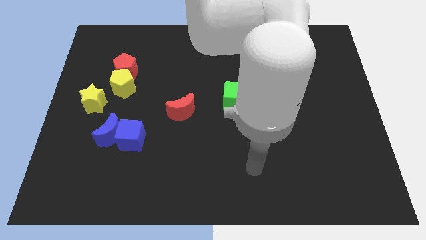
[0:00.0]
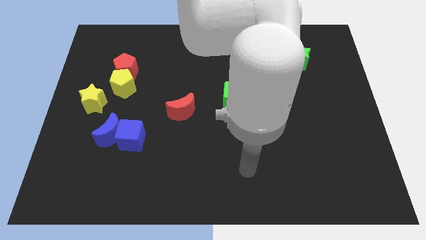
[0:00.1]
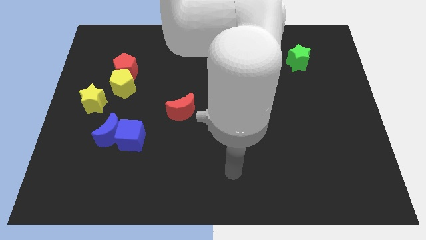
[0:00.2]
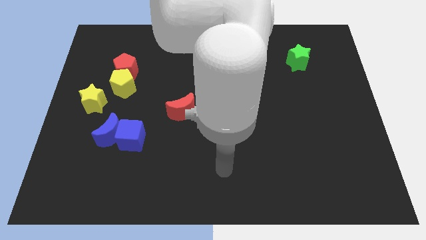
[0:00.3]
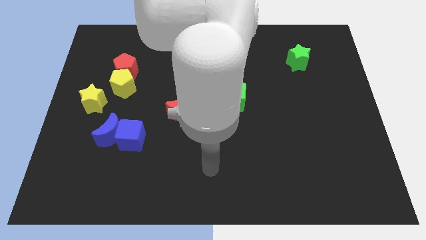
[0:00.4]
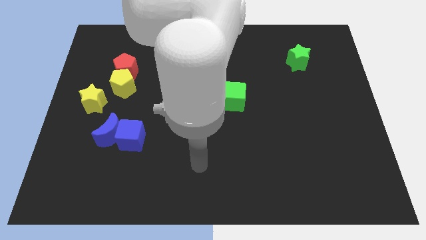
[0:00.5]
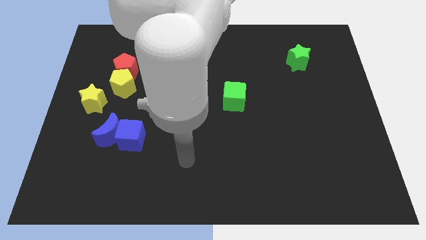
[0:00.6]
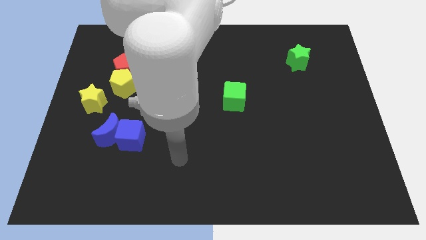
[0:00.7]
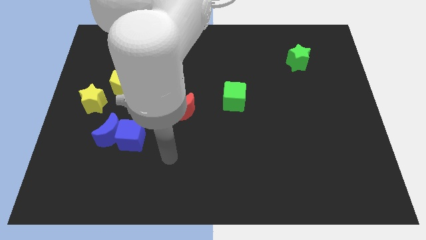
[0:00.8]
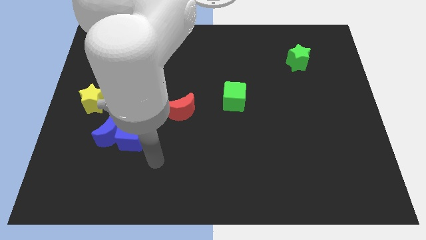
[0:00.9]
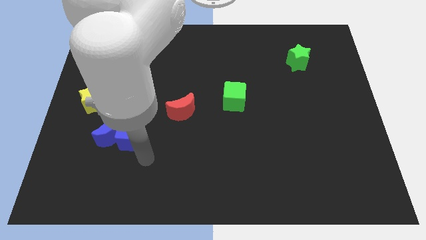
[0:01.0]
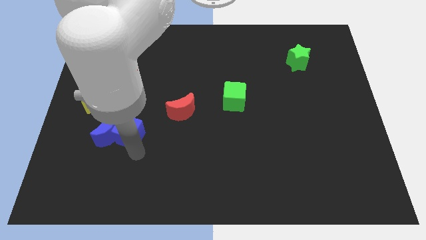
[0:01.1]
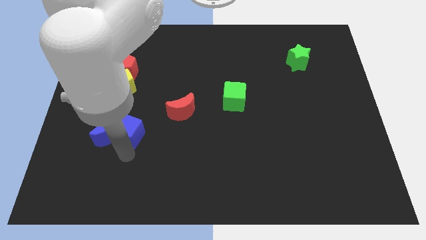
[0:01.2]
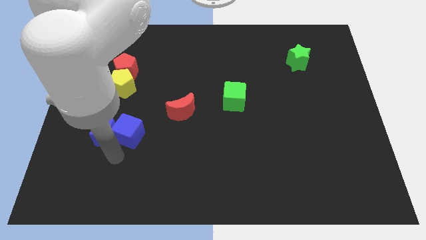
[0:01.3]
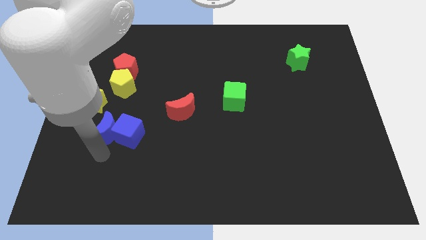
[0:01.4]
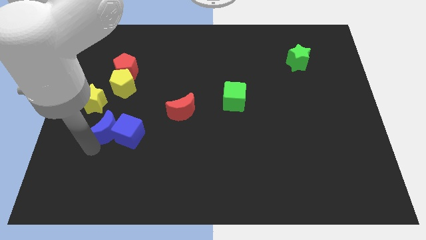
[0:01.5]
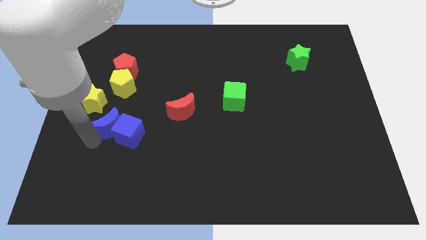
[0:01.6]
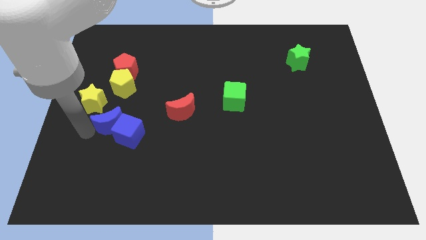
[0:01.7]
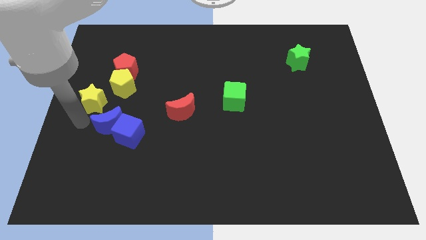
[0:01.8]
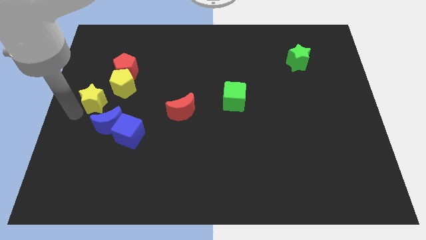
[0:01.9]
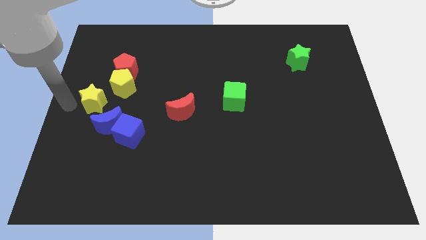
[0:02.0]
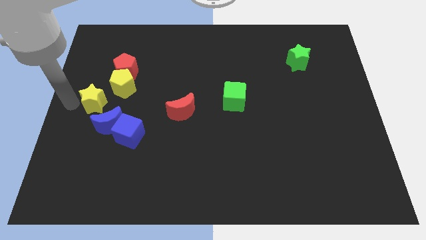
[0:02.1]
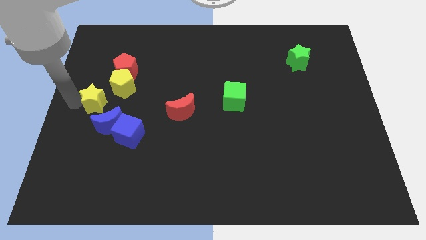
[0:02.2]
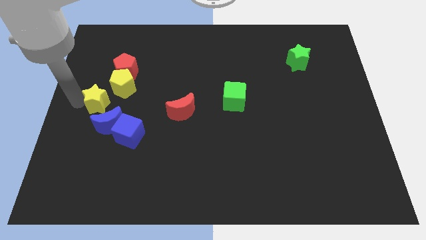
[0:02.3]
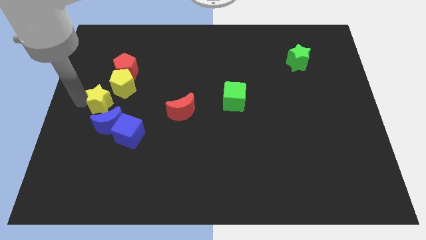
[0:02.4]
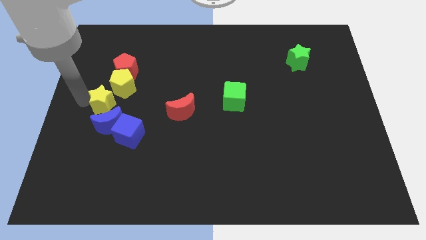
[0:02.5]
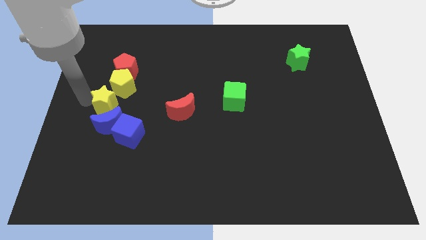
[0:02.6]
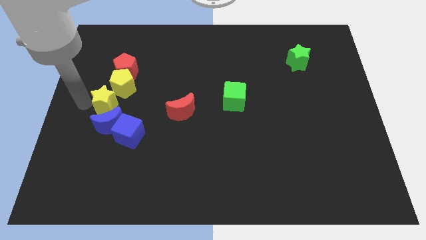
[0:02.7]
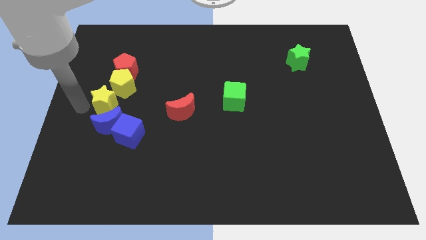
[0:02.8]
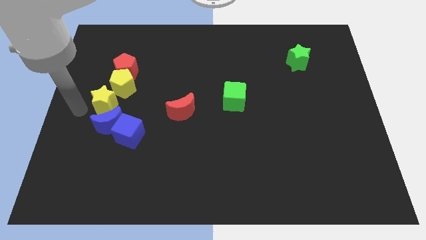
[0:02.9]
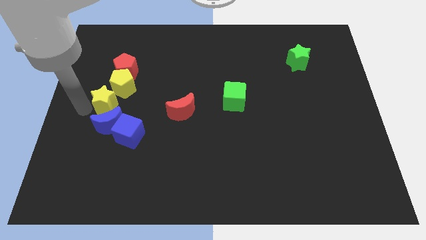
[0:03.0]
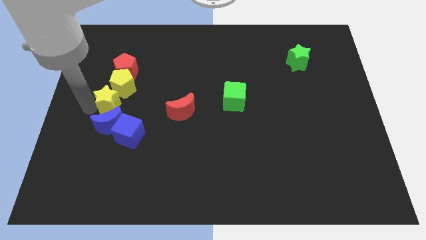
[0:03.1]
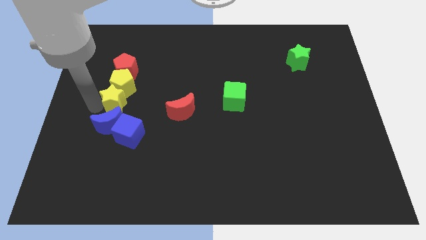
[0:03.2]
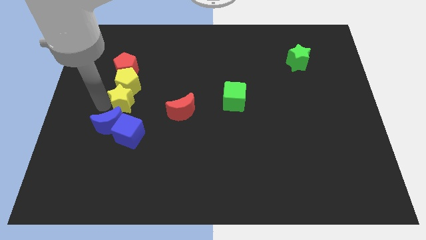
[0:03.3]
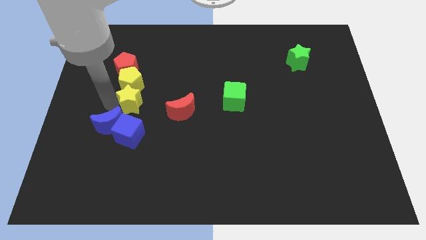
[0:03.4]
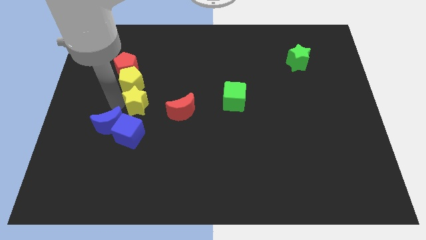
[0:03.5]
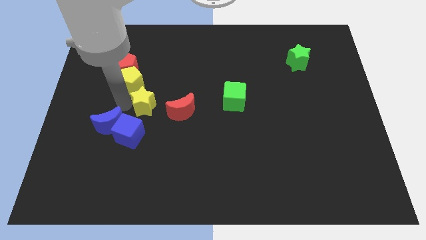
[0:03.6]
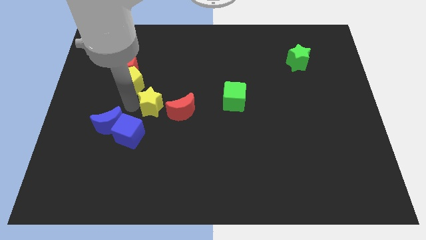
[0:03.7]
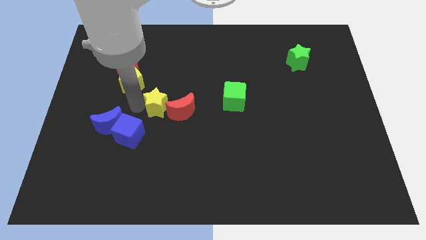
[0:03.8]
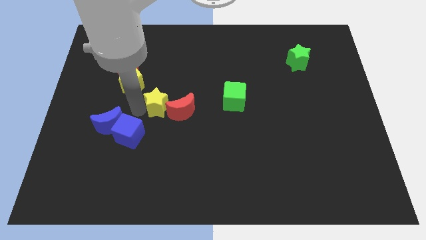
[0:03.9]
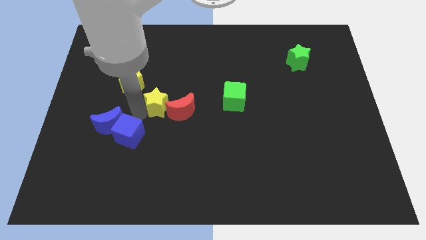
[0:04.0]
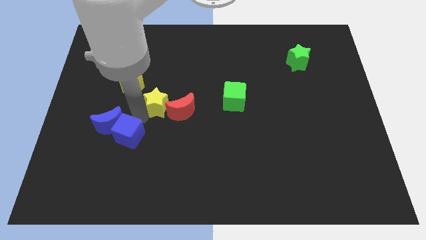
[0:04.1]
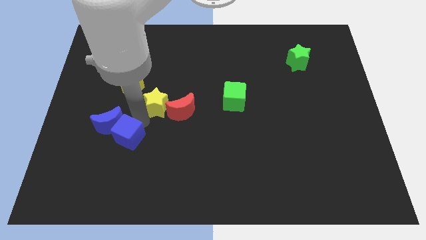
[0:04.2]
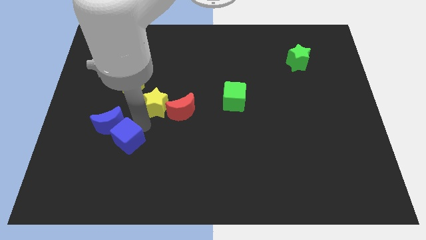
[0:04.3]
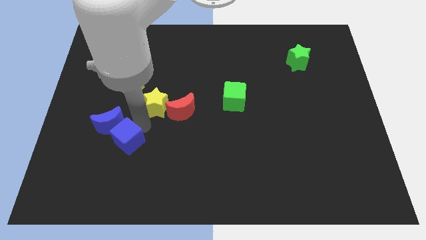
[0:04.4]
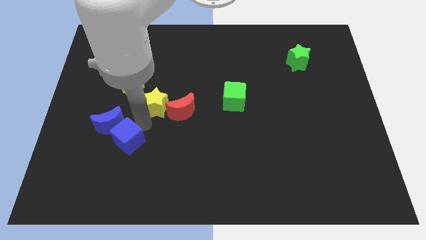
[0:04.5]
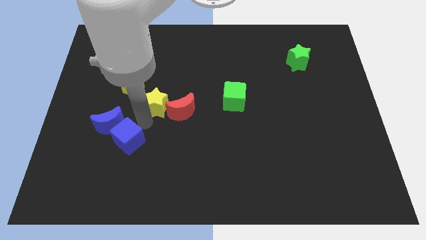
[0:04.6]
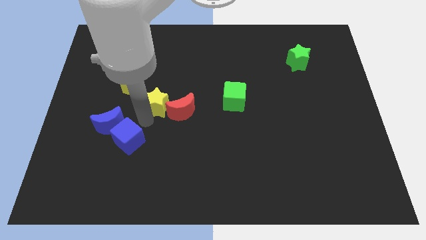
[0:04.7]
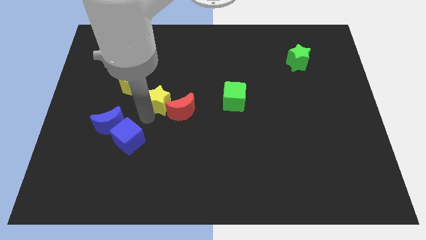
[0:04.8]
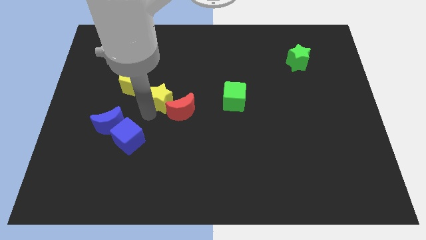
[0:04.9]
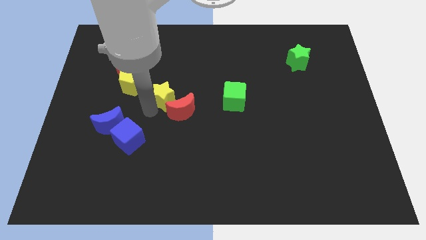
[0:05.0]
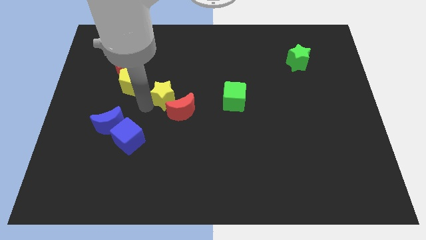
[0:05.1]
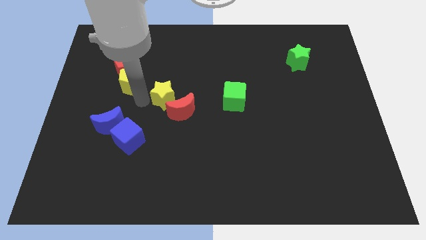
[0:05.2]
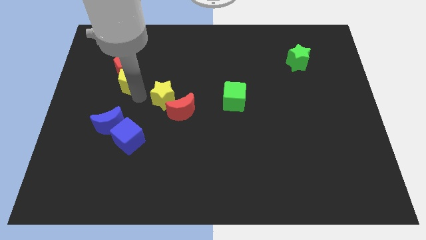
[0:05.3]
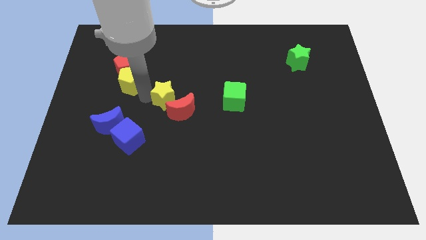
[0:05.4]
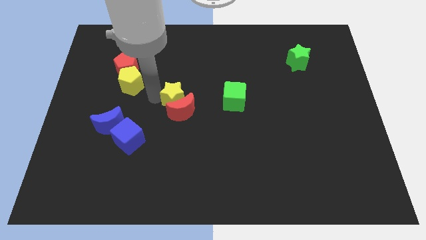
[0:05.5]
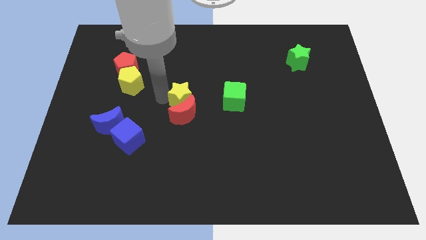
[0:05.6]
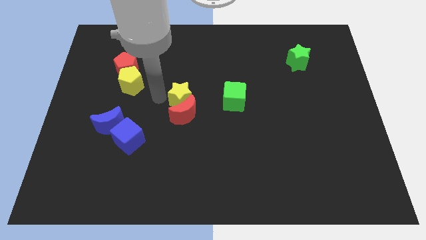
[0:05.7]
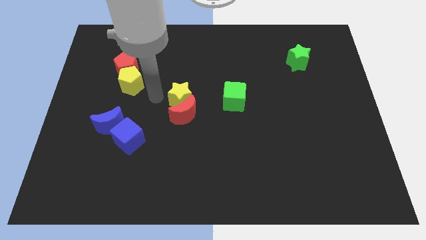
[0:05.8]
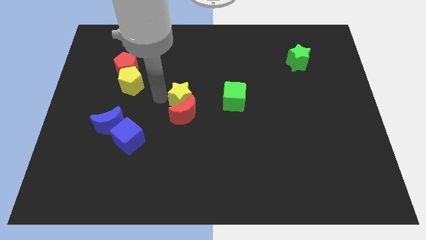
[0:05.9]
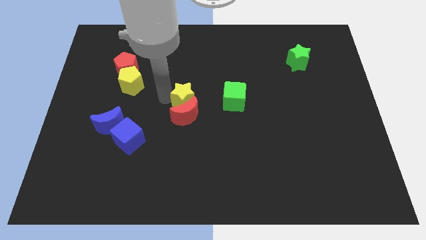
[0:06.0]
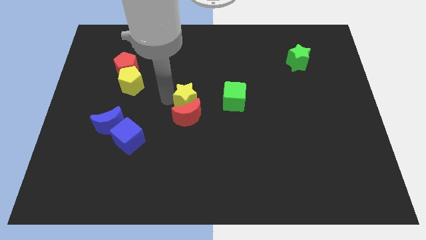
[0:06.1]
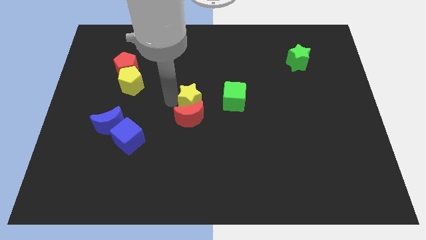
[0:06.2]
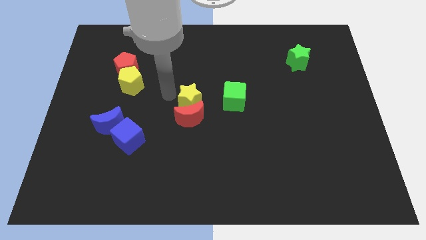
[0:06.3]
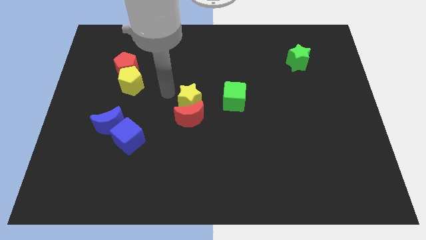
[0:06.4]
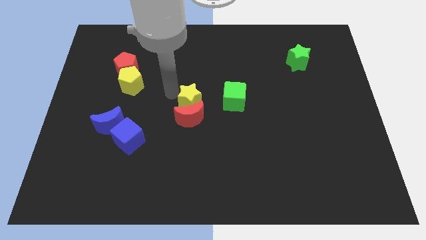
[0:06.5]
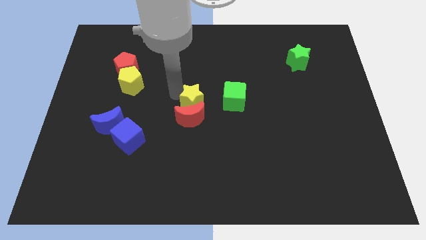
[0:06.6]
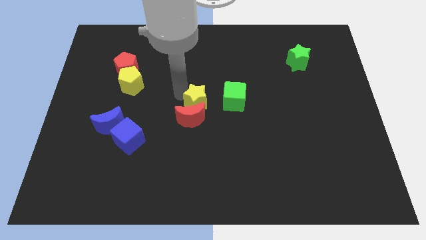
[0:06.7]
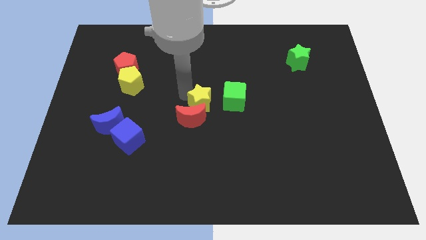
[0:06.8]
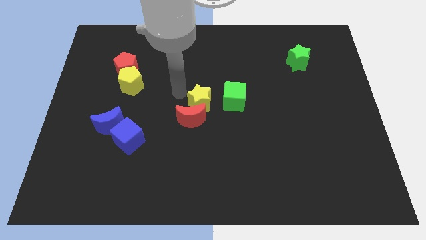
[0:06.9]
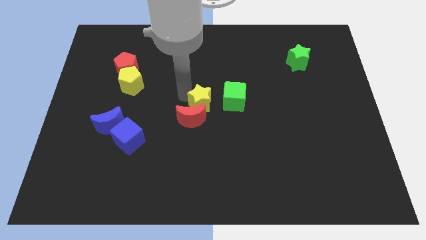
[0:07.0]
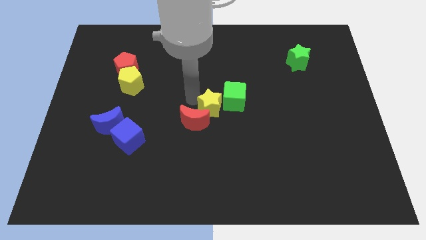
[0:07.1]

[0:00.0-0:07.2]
push the yellow star to the right of the red moon

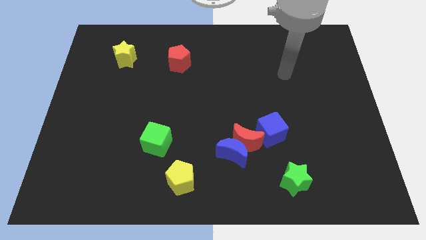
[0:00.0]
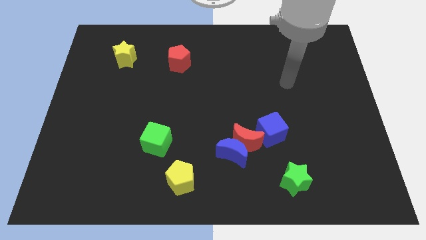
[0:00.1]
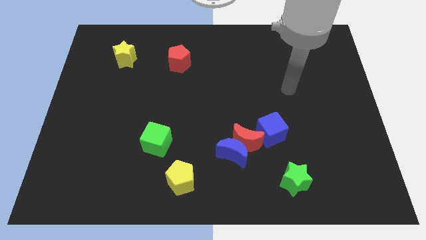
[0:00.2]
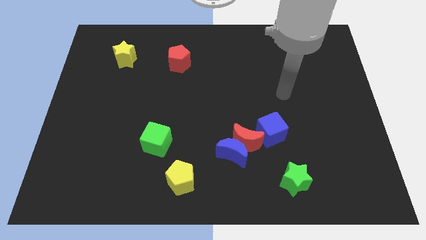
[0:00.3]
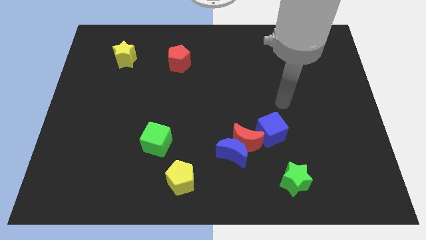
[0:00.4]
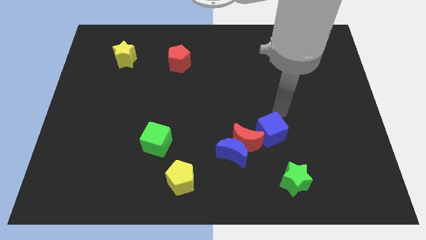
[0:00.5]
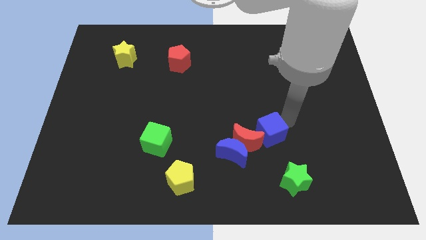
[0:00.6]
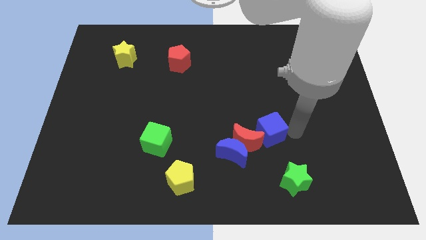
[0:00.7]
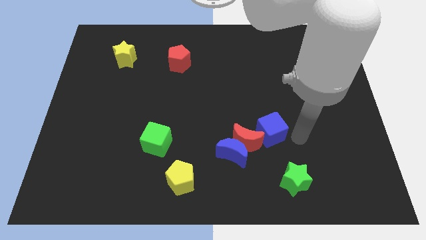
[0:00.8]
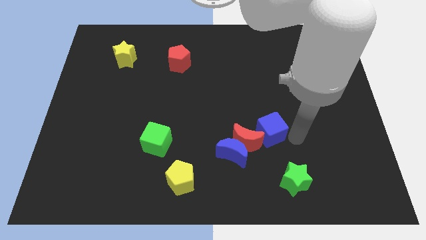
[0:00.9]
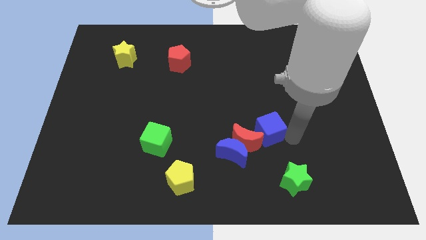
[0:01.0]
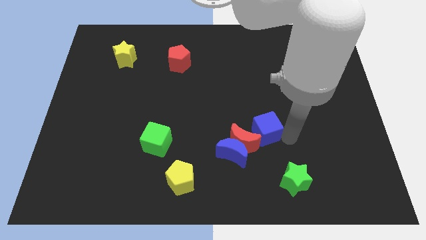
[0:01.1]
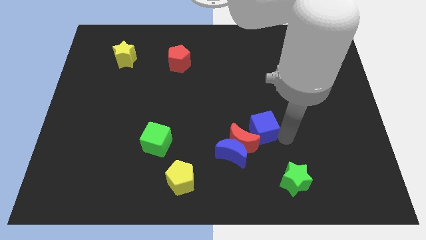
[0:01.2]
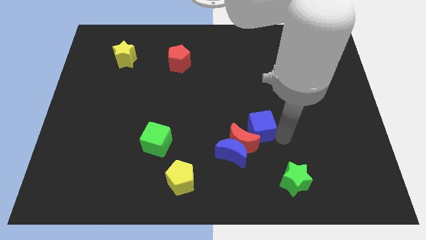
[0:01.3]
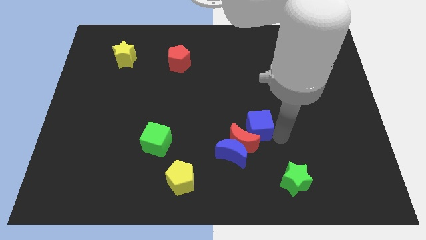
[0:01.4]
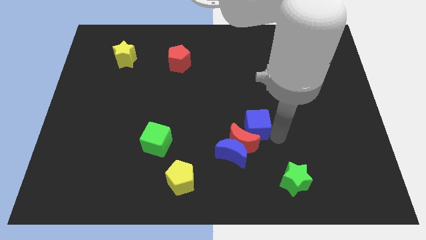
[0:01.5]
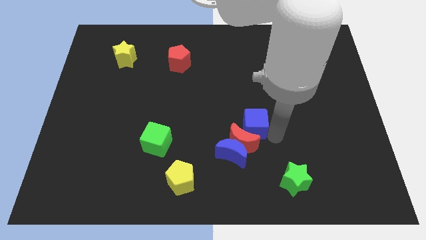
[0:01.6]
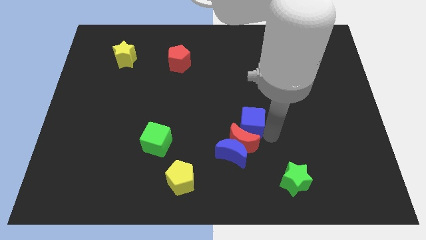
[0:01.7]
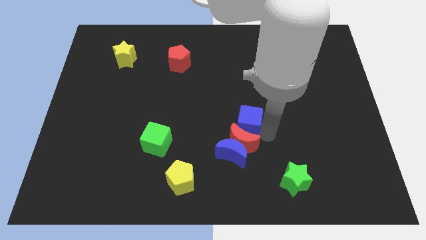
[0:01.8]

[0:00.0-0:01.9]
slide the blue cube diagonally up and to the left of the red moon
